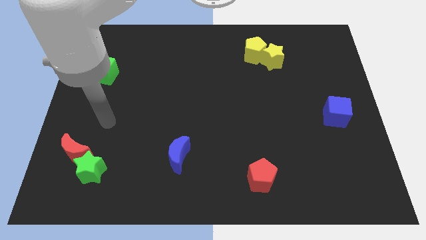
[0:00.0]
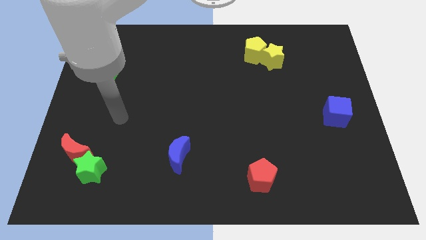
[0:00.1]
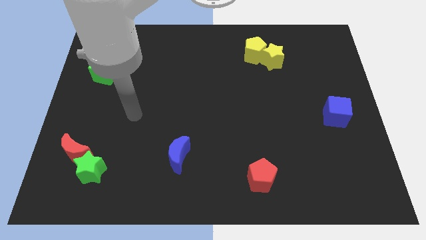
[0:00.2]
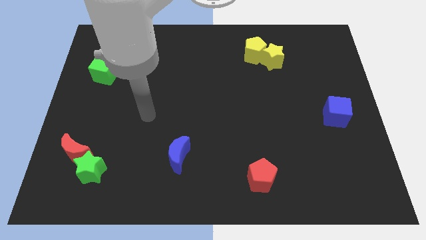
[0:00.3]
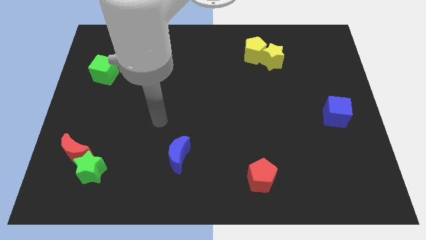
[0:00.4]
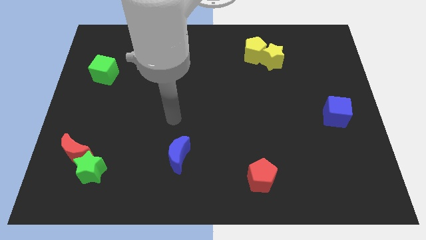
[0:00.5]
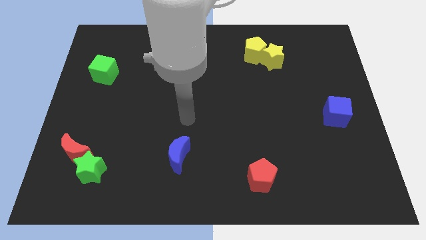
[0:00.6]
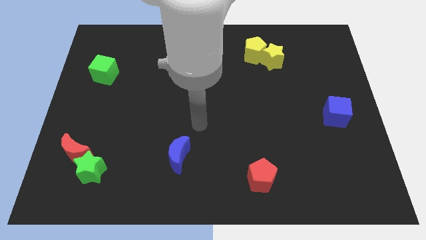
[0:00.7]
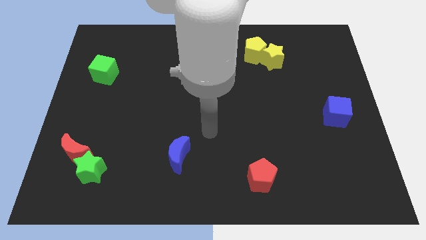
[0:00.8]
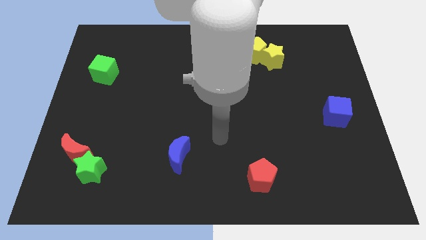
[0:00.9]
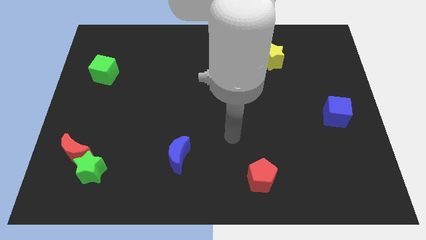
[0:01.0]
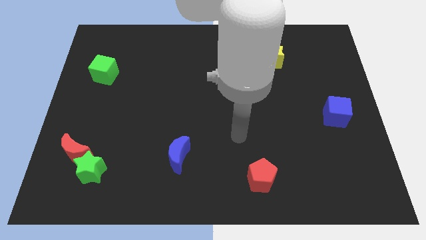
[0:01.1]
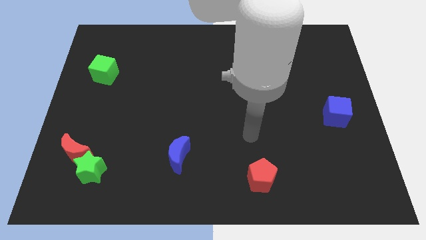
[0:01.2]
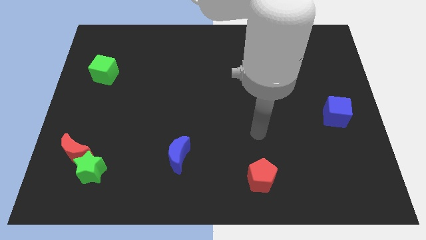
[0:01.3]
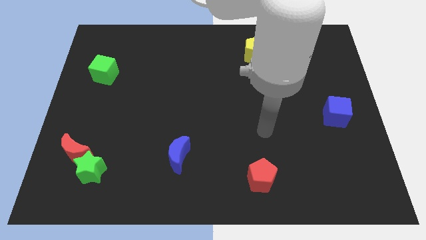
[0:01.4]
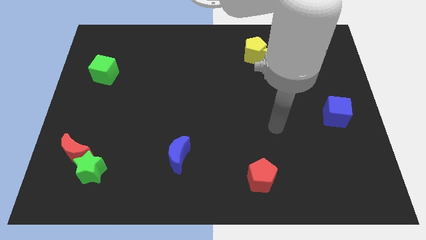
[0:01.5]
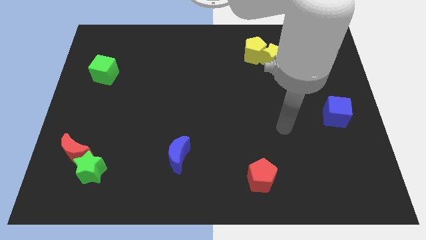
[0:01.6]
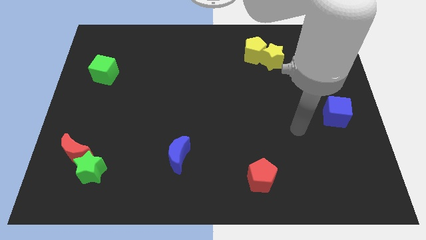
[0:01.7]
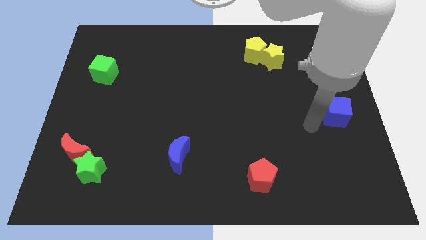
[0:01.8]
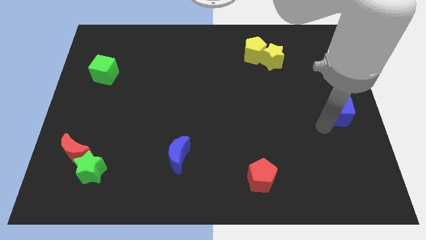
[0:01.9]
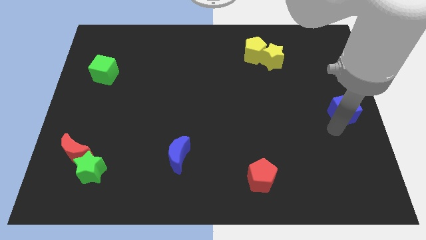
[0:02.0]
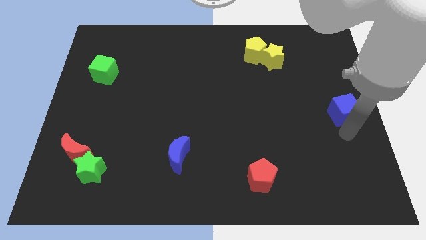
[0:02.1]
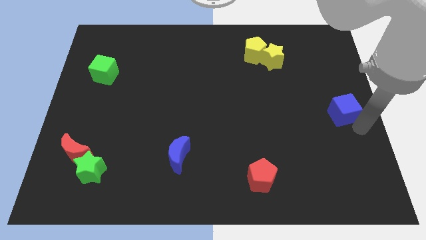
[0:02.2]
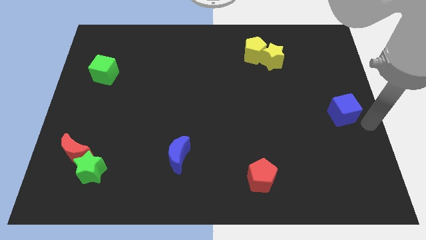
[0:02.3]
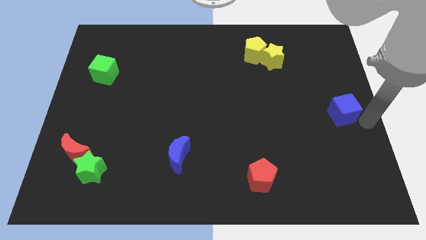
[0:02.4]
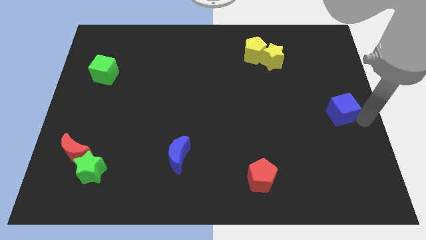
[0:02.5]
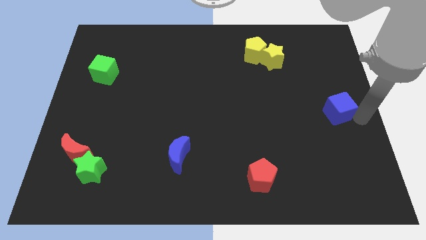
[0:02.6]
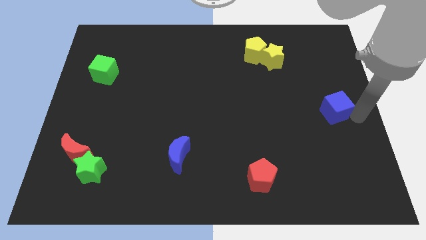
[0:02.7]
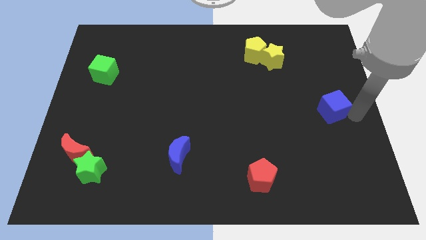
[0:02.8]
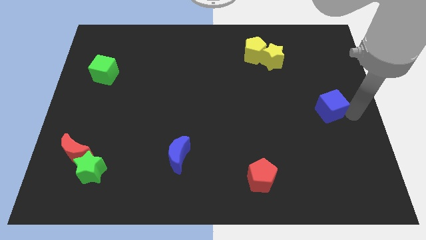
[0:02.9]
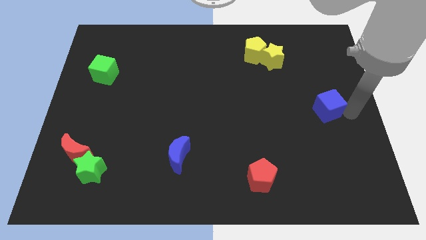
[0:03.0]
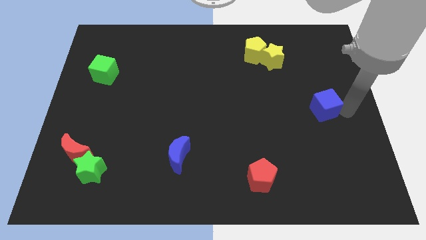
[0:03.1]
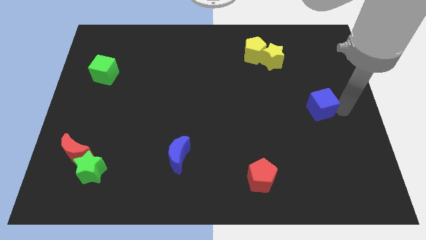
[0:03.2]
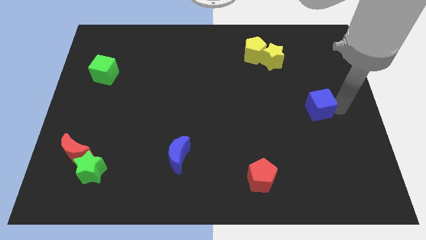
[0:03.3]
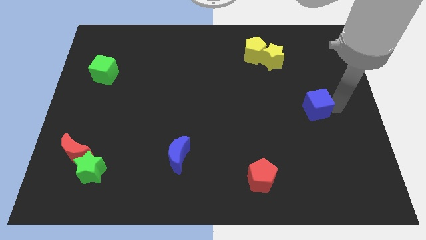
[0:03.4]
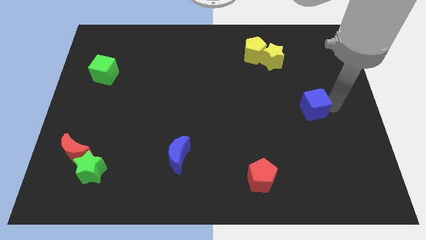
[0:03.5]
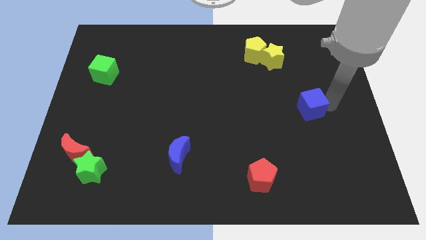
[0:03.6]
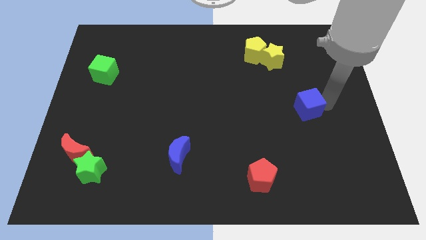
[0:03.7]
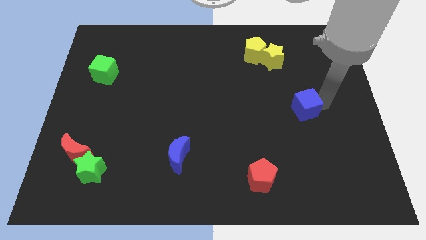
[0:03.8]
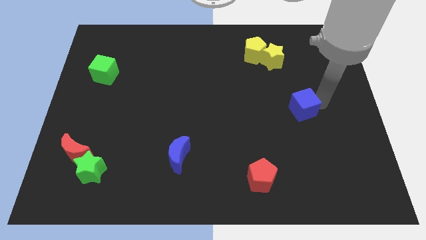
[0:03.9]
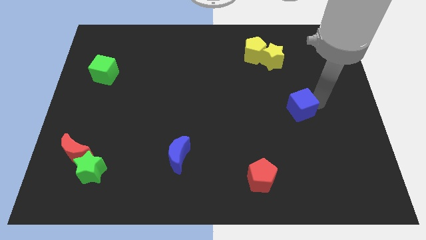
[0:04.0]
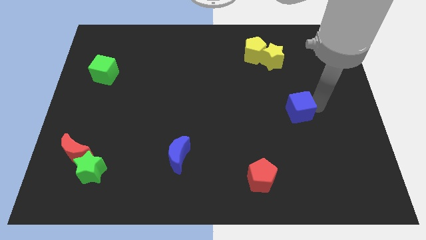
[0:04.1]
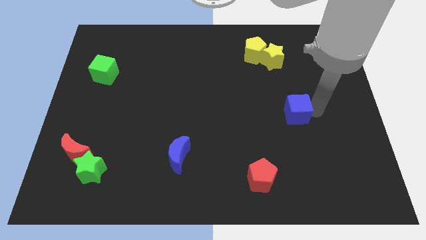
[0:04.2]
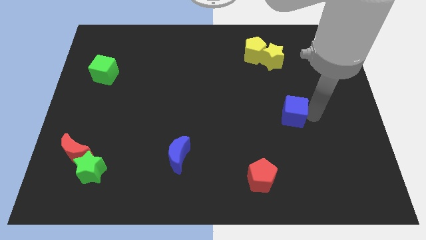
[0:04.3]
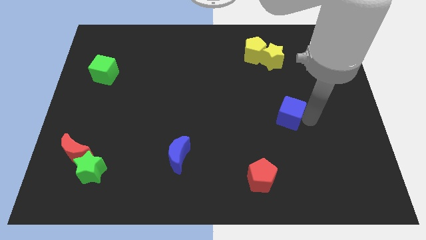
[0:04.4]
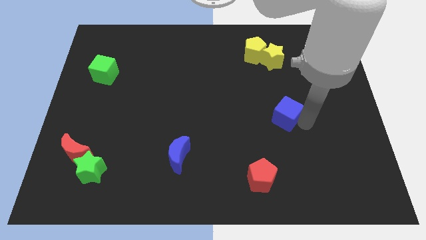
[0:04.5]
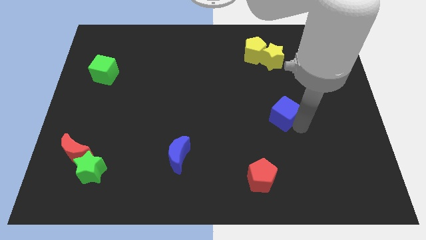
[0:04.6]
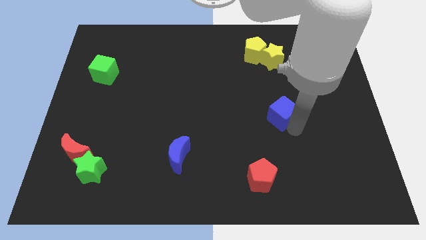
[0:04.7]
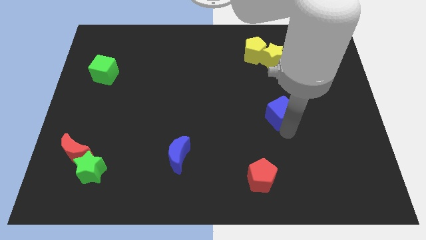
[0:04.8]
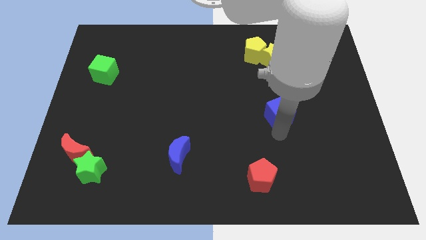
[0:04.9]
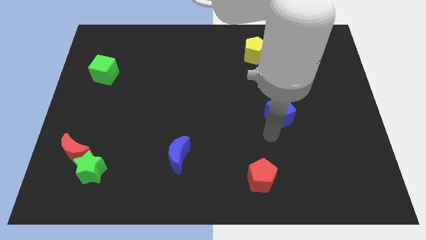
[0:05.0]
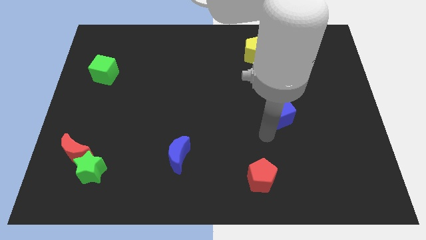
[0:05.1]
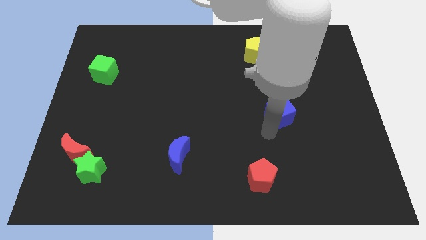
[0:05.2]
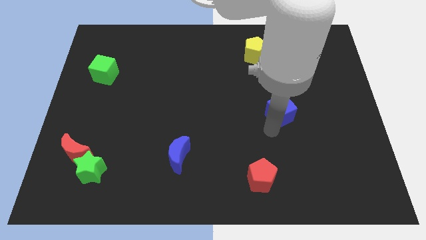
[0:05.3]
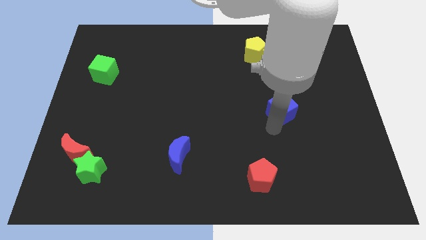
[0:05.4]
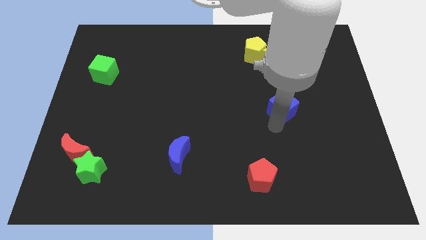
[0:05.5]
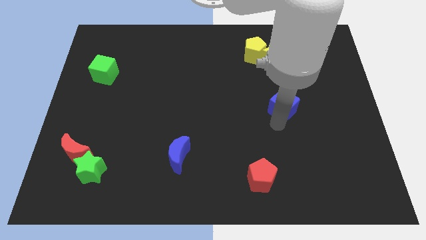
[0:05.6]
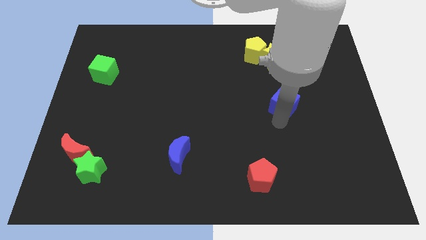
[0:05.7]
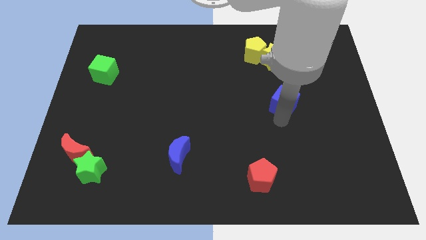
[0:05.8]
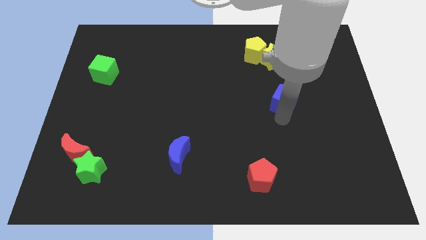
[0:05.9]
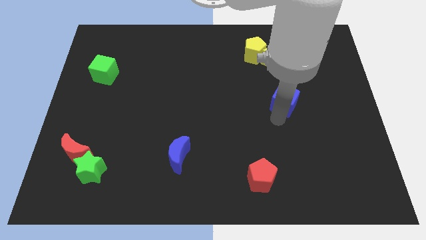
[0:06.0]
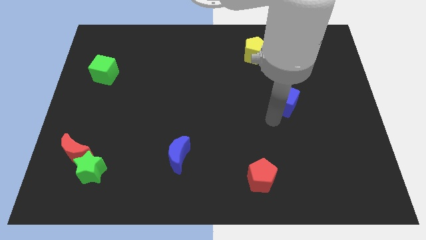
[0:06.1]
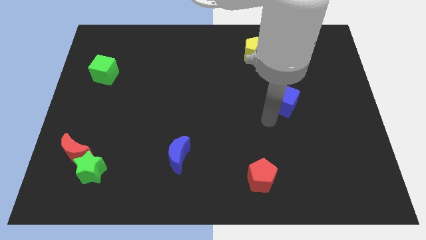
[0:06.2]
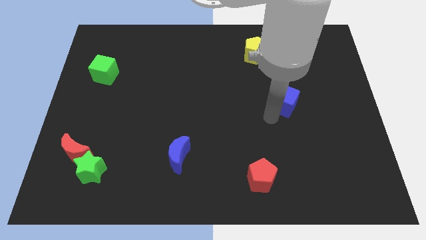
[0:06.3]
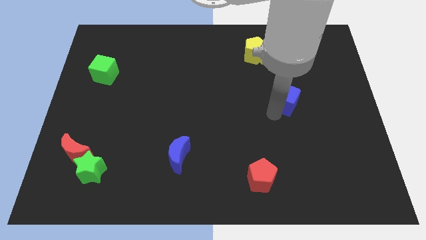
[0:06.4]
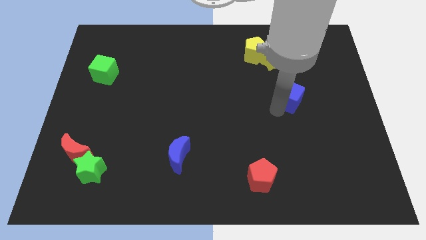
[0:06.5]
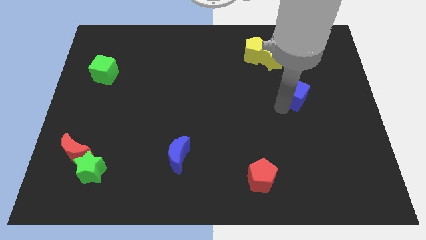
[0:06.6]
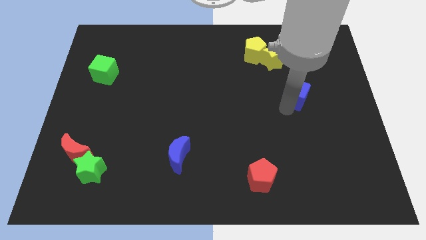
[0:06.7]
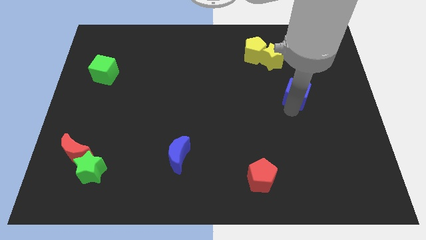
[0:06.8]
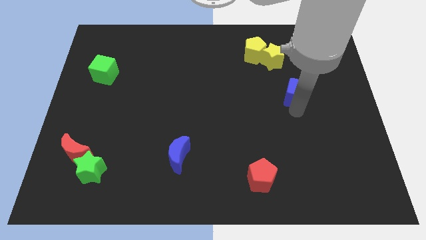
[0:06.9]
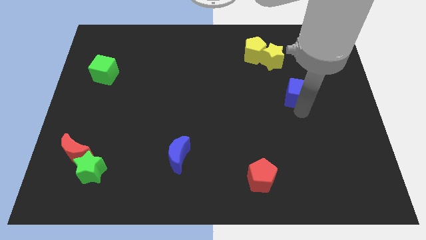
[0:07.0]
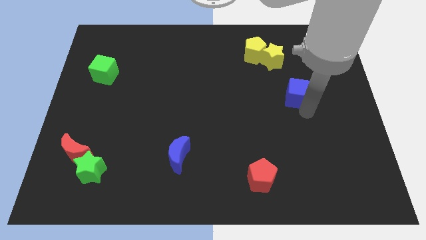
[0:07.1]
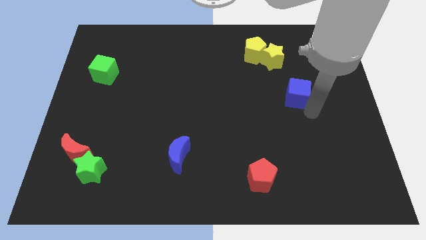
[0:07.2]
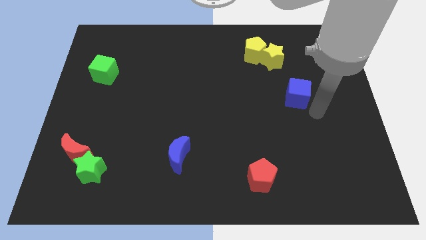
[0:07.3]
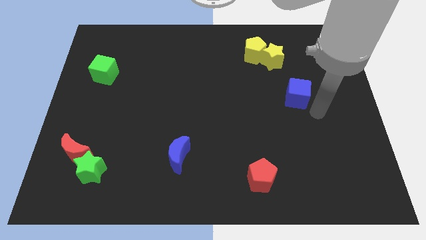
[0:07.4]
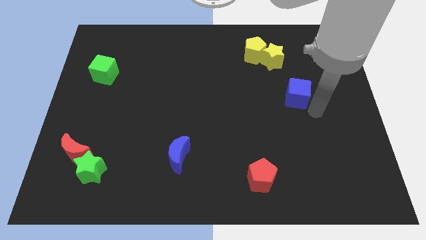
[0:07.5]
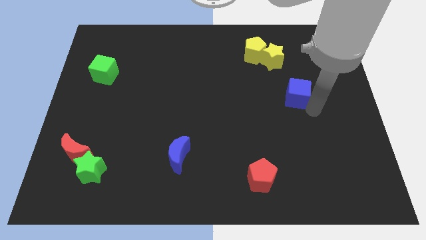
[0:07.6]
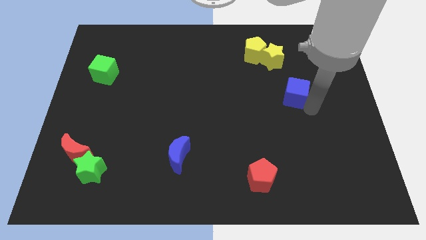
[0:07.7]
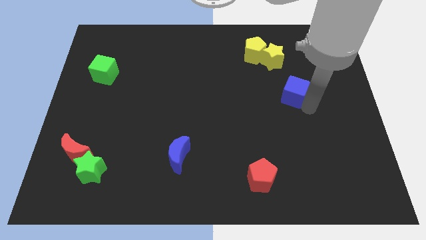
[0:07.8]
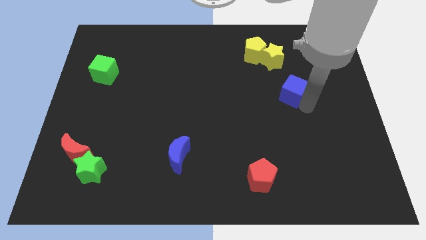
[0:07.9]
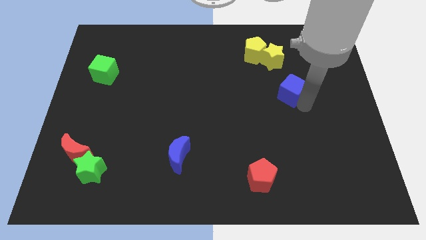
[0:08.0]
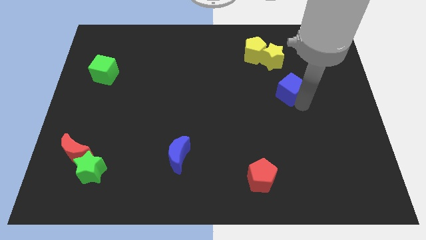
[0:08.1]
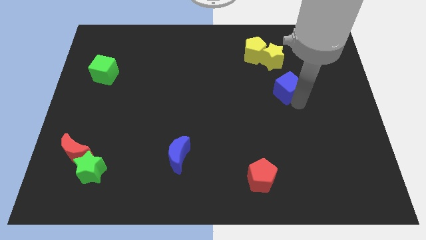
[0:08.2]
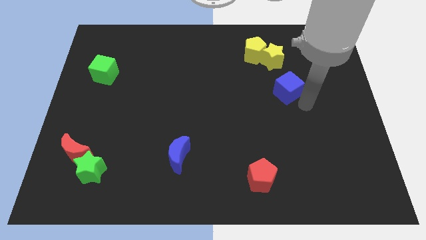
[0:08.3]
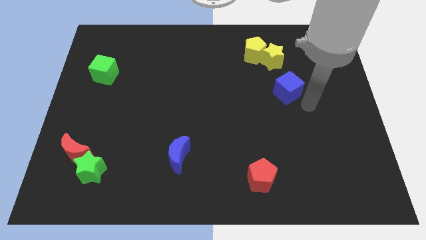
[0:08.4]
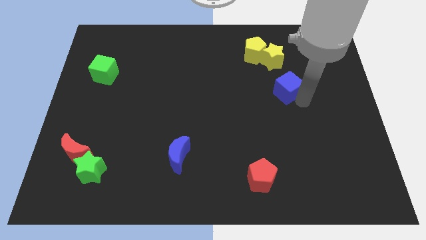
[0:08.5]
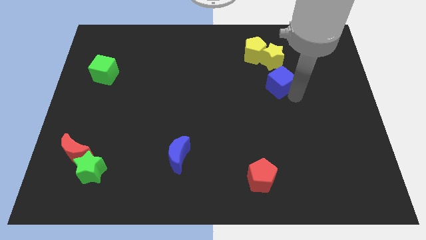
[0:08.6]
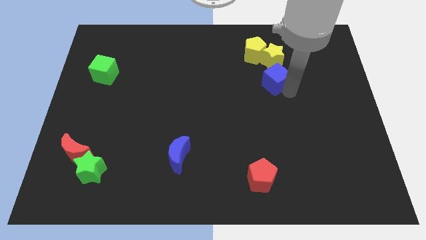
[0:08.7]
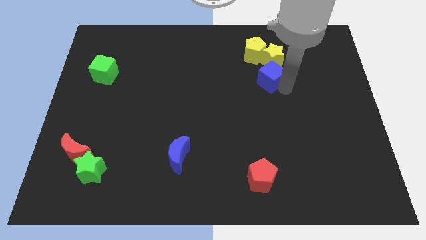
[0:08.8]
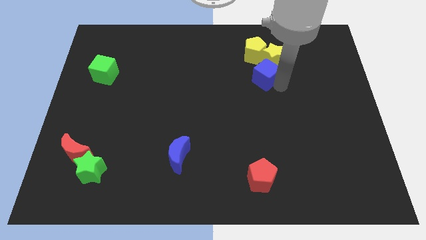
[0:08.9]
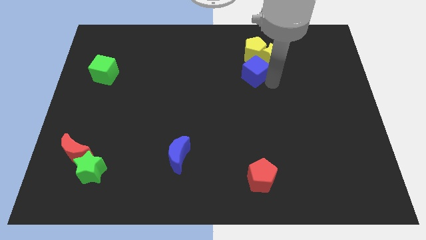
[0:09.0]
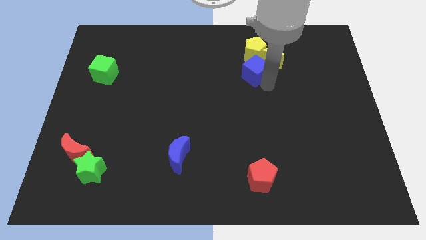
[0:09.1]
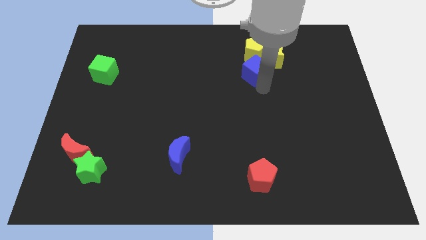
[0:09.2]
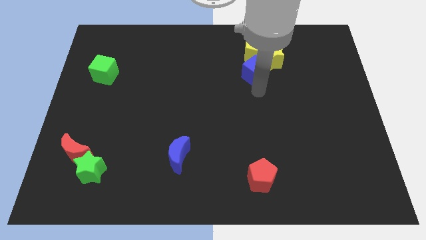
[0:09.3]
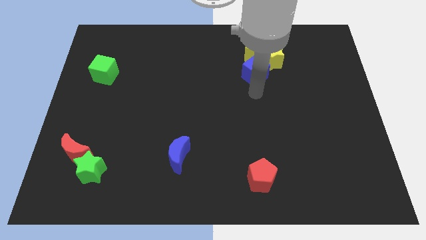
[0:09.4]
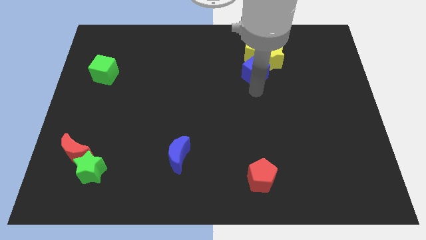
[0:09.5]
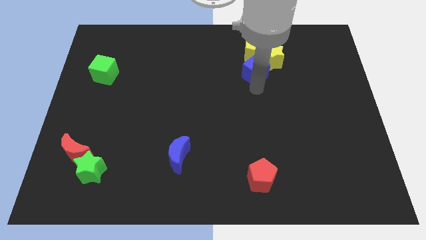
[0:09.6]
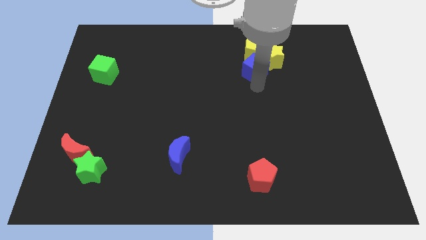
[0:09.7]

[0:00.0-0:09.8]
move the blue cube towards the yellow pentagon
